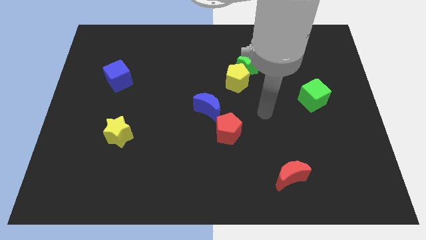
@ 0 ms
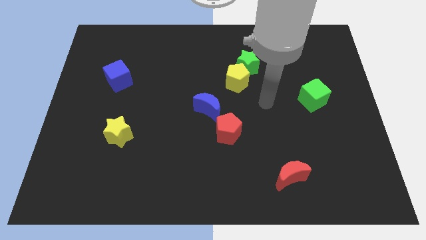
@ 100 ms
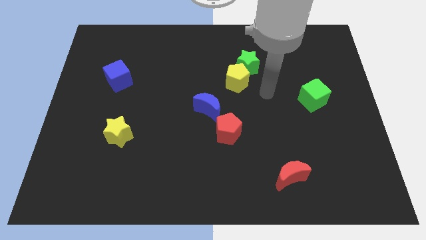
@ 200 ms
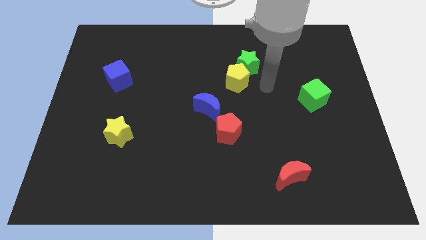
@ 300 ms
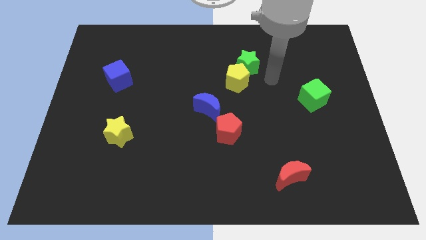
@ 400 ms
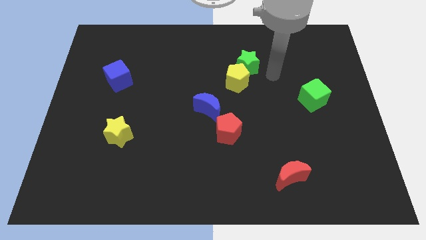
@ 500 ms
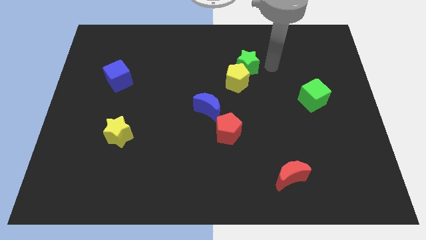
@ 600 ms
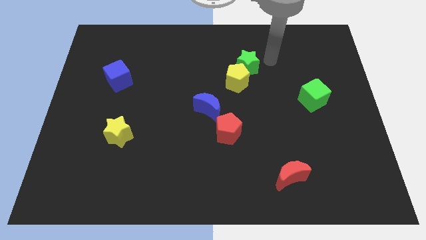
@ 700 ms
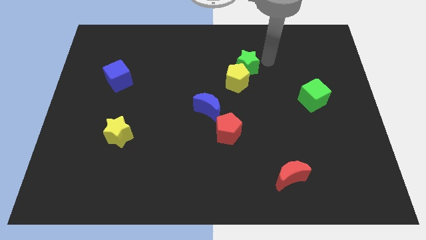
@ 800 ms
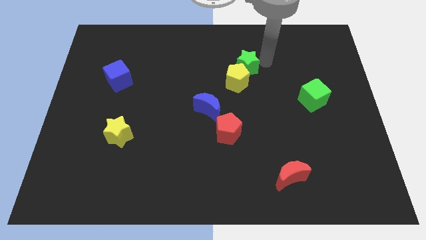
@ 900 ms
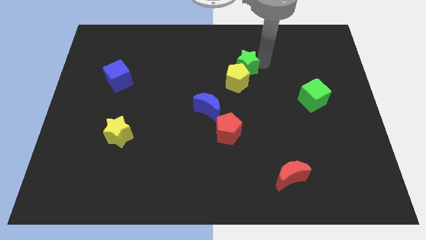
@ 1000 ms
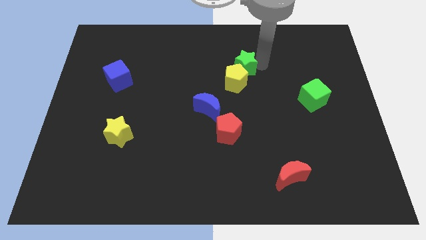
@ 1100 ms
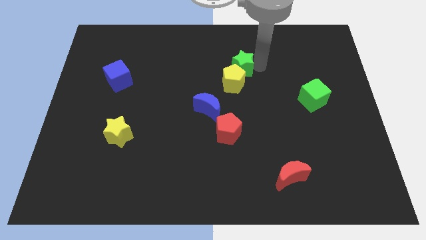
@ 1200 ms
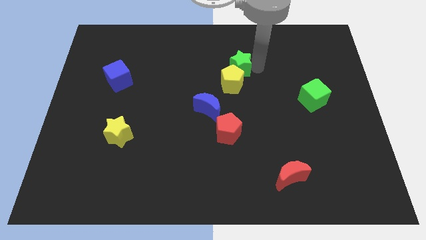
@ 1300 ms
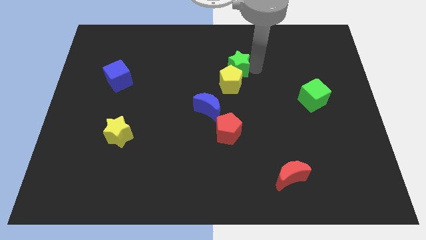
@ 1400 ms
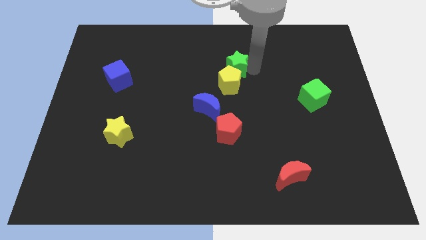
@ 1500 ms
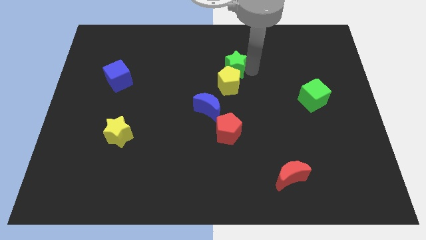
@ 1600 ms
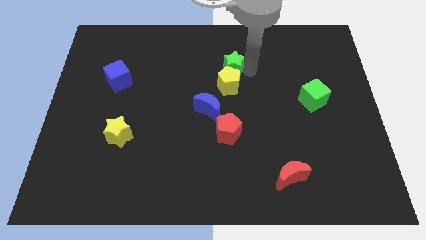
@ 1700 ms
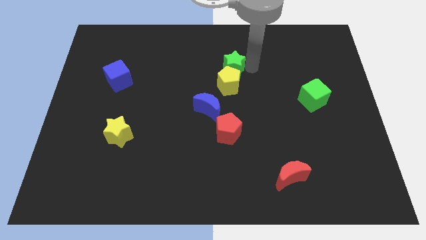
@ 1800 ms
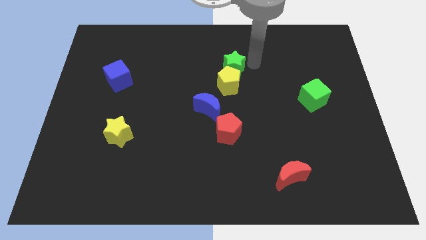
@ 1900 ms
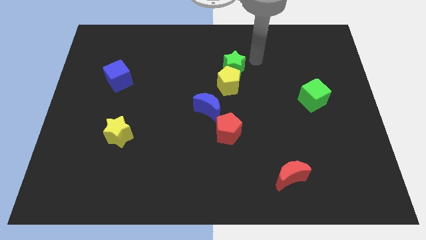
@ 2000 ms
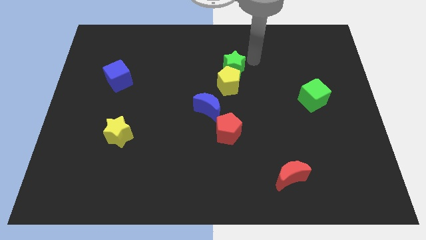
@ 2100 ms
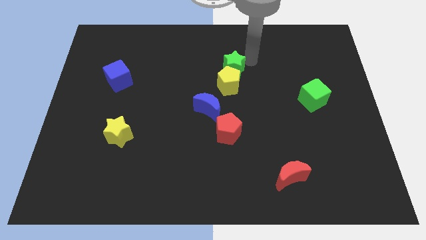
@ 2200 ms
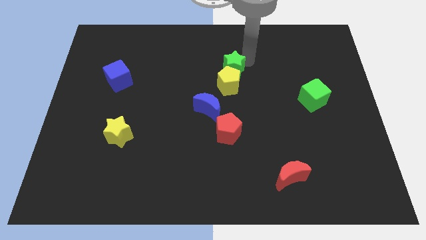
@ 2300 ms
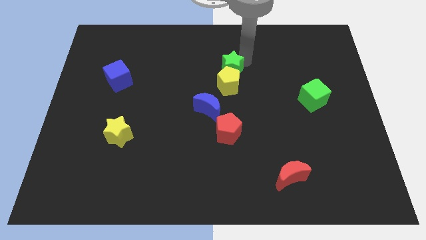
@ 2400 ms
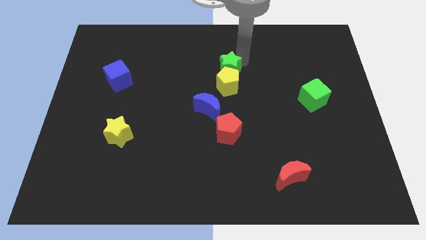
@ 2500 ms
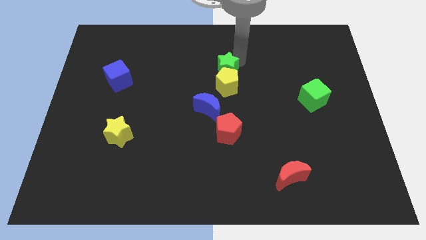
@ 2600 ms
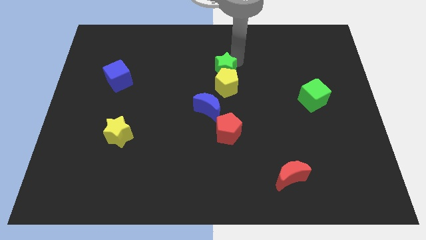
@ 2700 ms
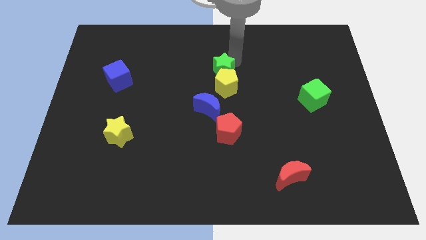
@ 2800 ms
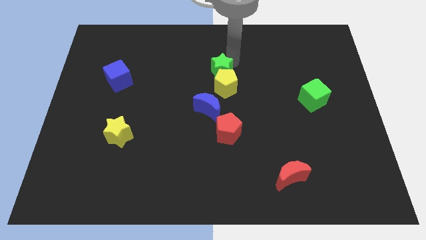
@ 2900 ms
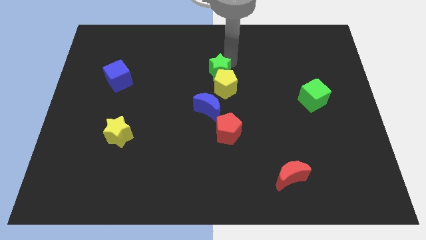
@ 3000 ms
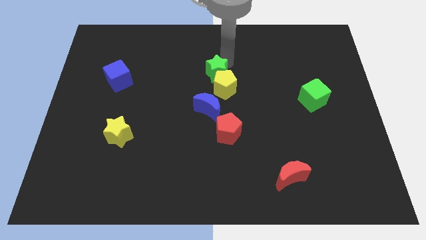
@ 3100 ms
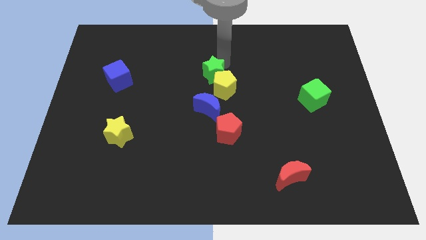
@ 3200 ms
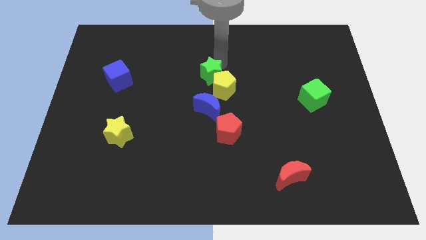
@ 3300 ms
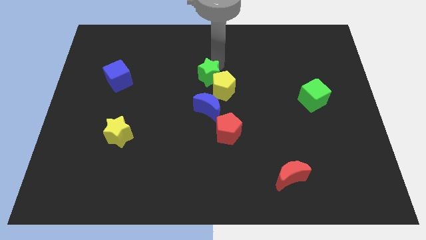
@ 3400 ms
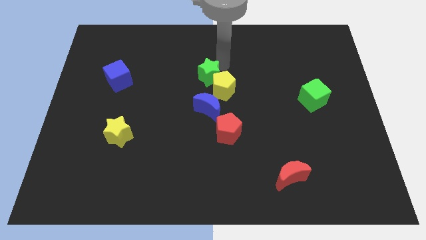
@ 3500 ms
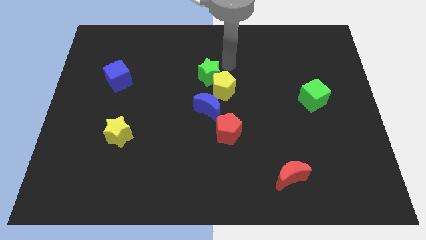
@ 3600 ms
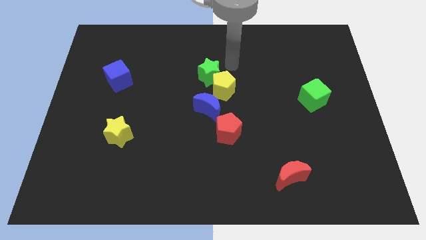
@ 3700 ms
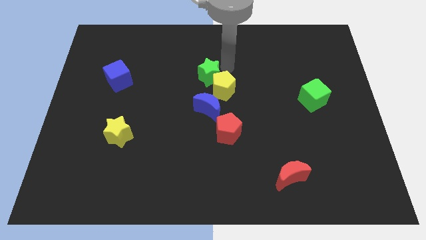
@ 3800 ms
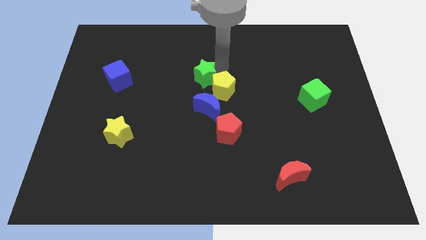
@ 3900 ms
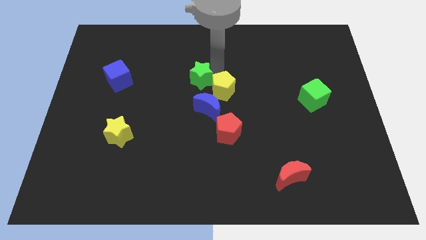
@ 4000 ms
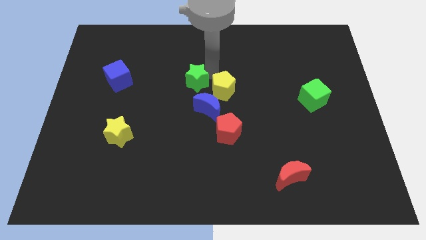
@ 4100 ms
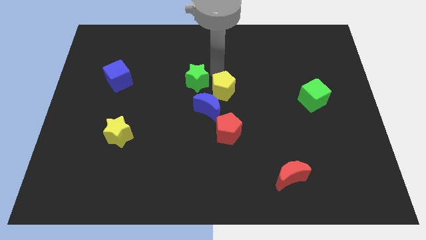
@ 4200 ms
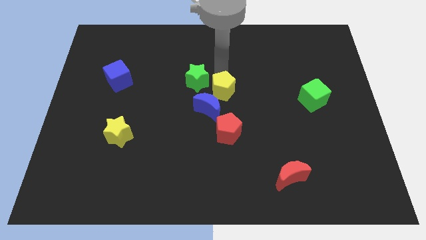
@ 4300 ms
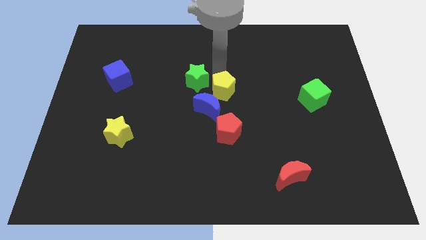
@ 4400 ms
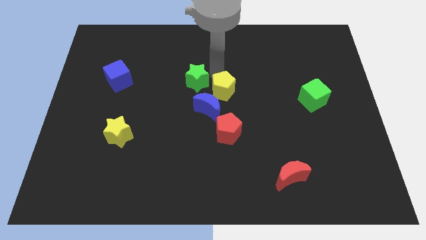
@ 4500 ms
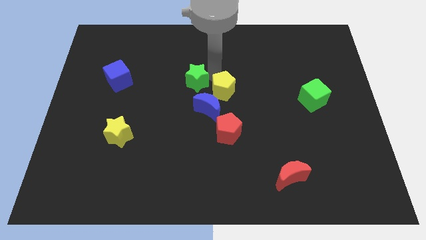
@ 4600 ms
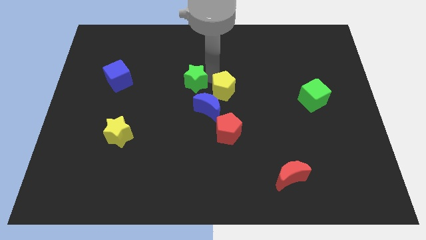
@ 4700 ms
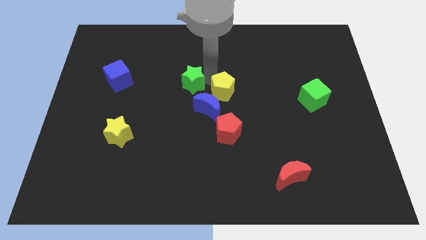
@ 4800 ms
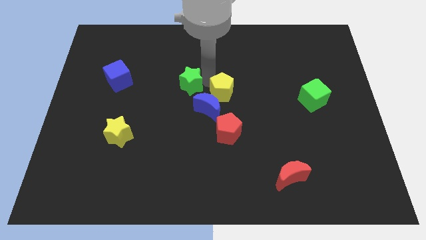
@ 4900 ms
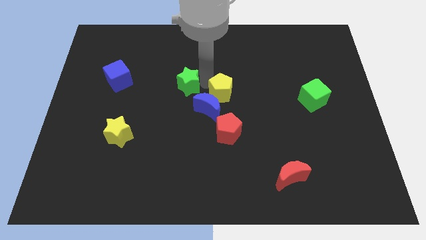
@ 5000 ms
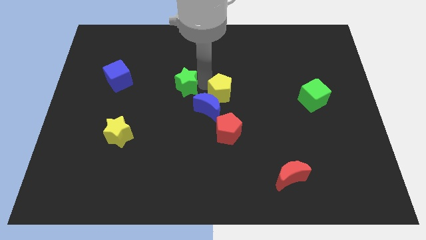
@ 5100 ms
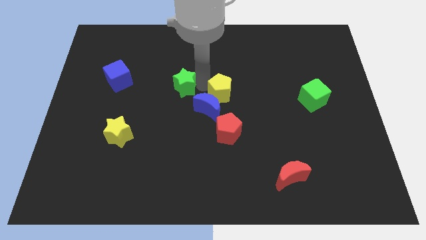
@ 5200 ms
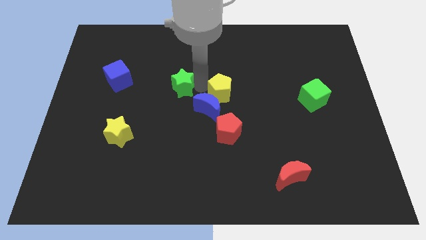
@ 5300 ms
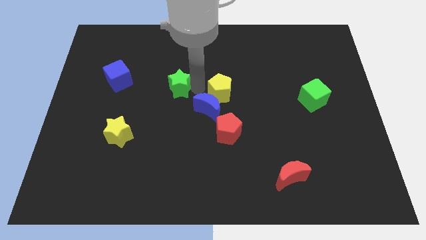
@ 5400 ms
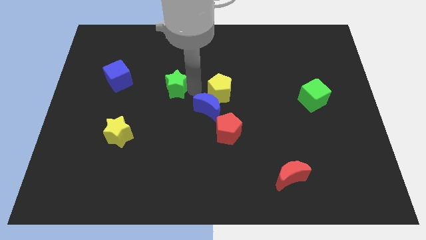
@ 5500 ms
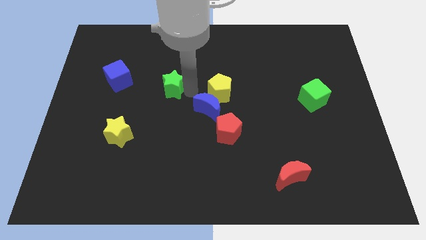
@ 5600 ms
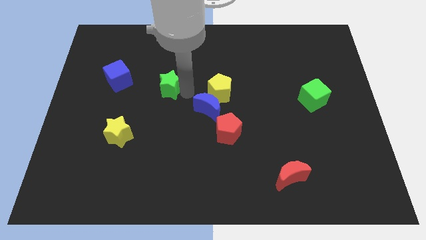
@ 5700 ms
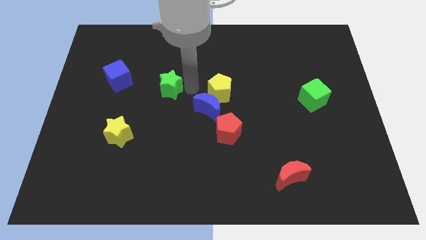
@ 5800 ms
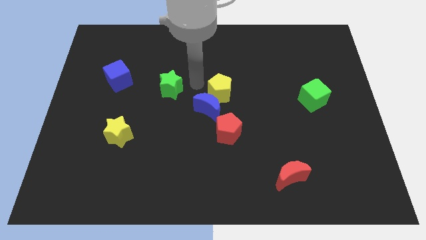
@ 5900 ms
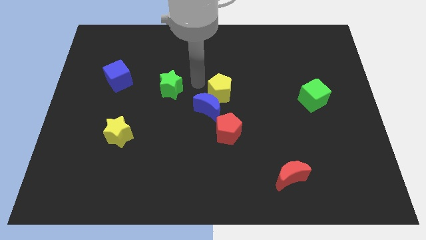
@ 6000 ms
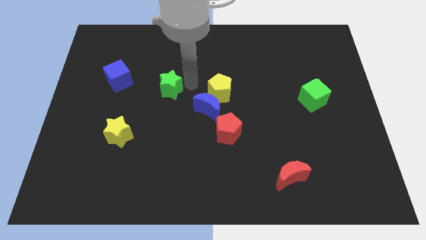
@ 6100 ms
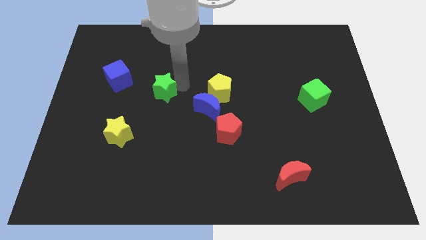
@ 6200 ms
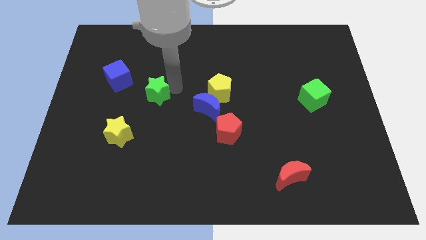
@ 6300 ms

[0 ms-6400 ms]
put the green star to the bottom right of the blue cube

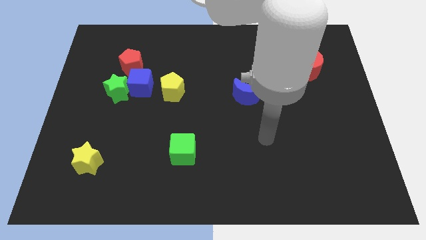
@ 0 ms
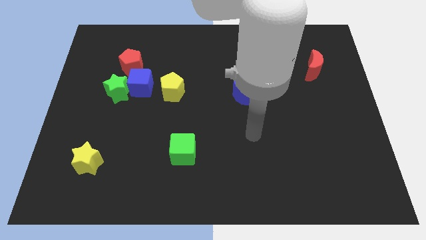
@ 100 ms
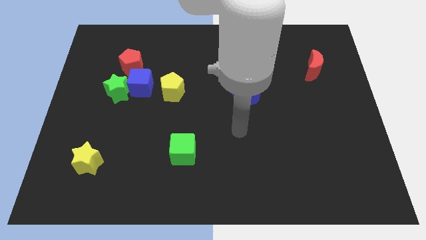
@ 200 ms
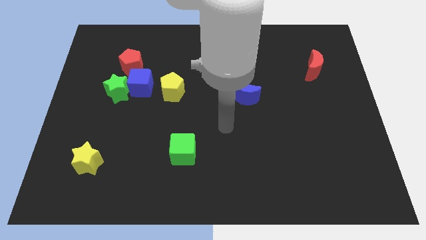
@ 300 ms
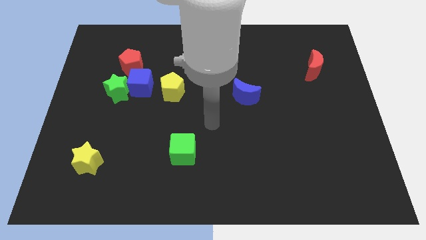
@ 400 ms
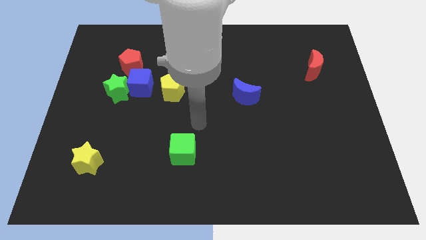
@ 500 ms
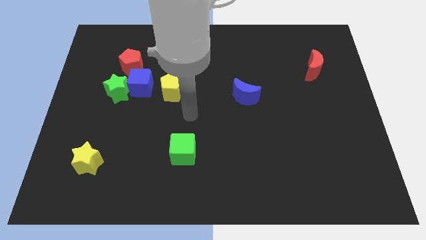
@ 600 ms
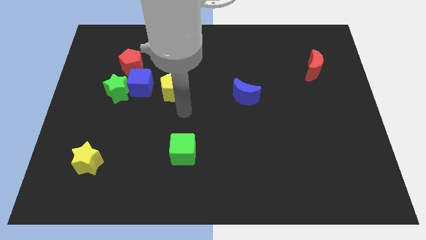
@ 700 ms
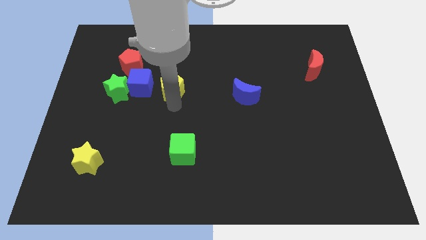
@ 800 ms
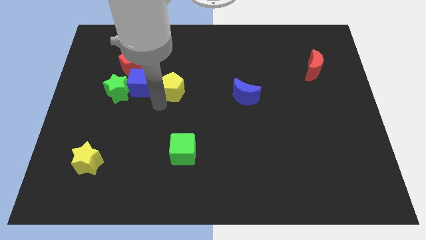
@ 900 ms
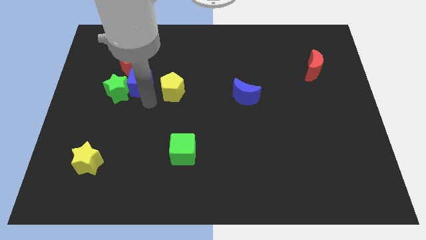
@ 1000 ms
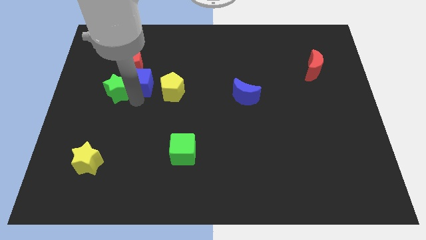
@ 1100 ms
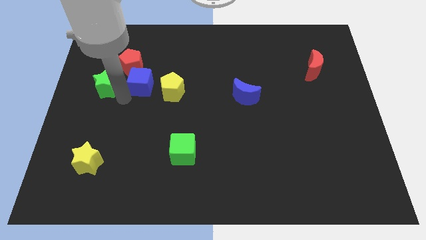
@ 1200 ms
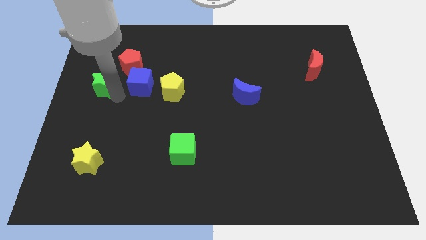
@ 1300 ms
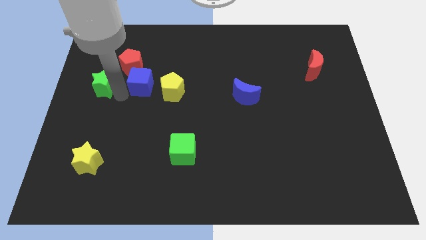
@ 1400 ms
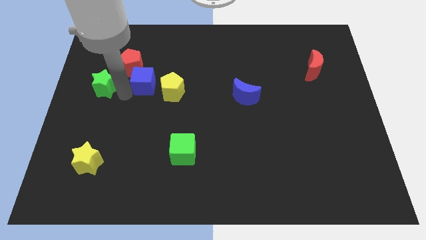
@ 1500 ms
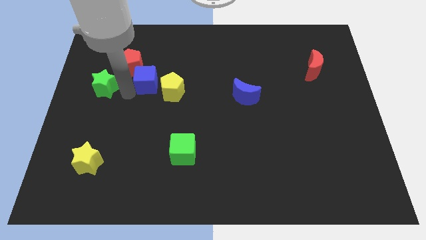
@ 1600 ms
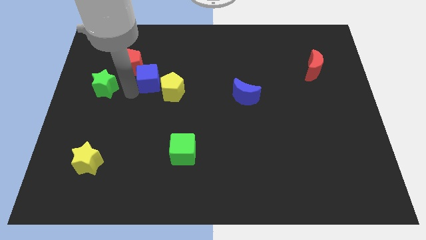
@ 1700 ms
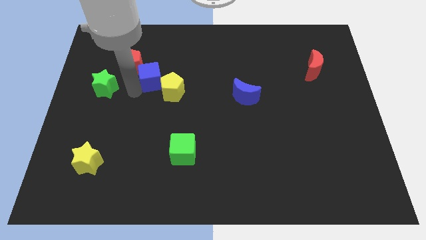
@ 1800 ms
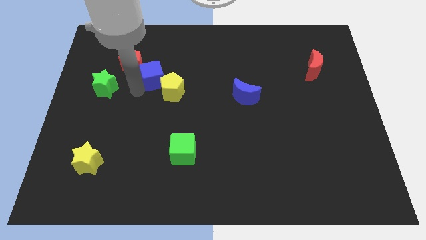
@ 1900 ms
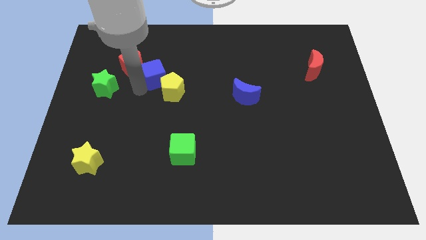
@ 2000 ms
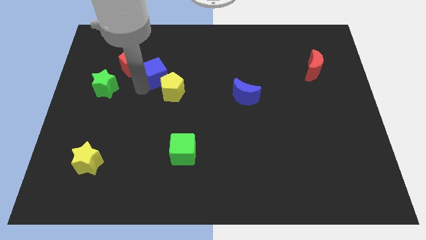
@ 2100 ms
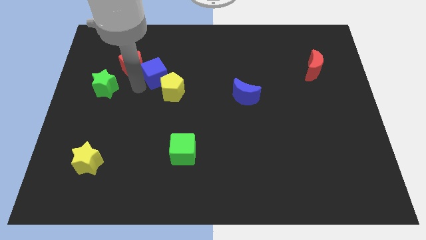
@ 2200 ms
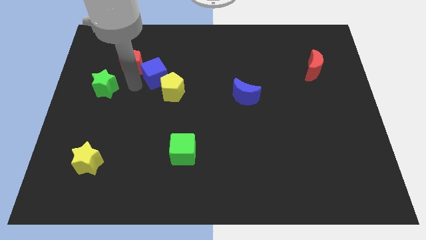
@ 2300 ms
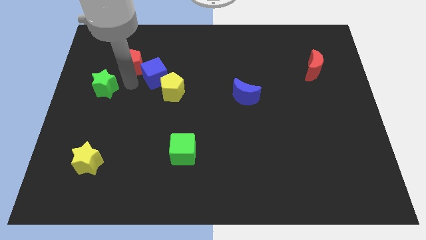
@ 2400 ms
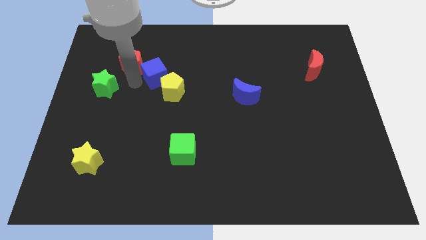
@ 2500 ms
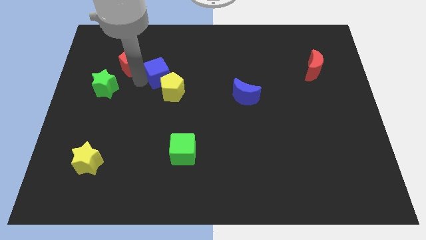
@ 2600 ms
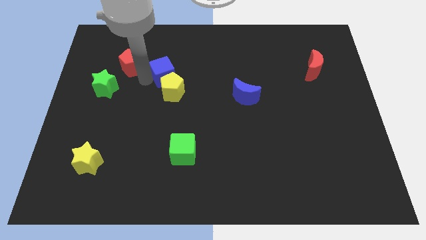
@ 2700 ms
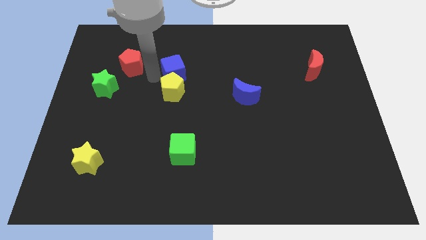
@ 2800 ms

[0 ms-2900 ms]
push the blue cube to the top right side of the yellow pentagon
